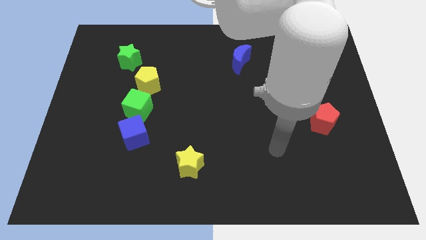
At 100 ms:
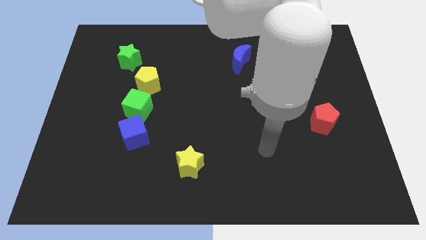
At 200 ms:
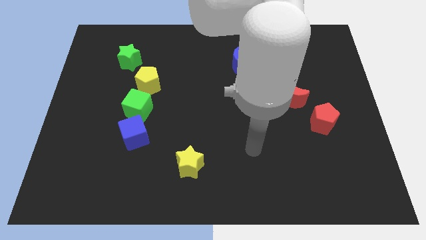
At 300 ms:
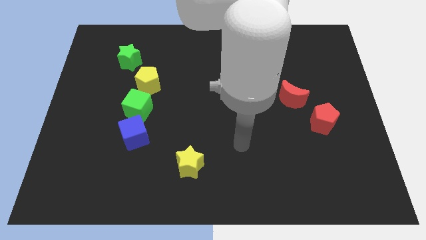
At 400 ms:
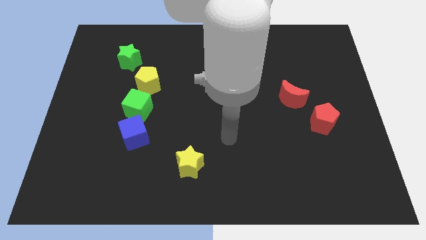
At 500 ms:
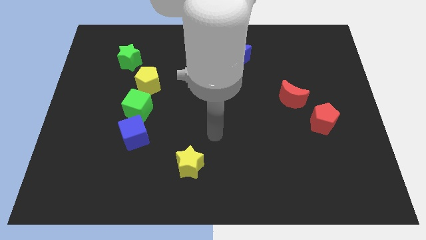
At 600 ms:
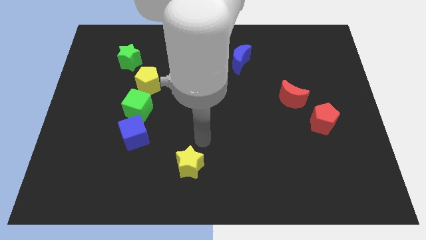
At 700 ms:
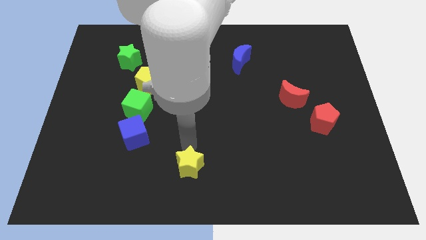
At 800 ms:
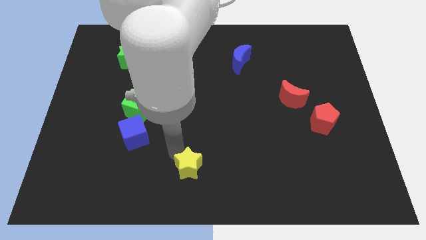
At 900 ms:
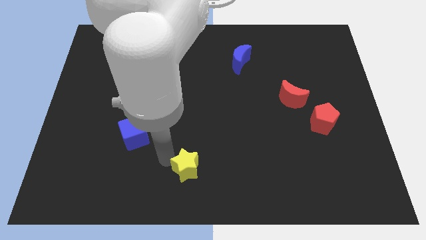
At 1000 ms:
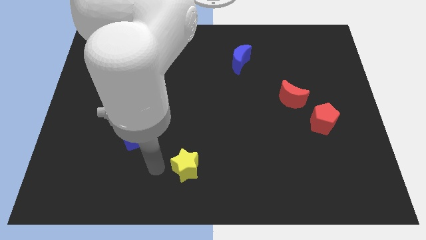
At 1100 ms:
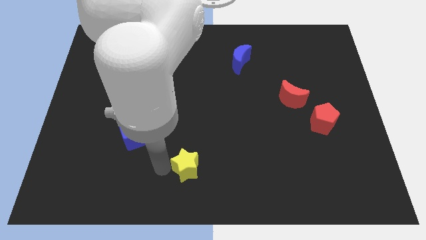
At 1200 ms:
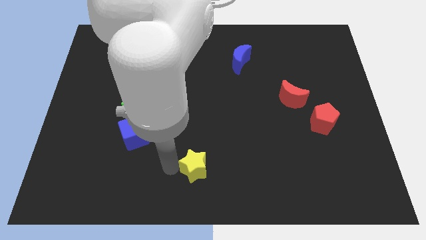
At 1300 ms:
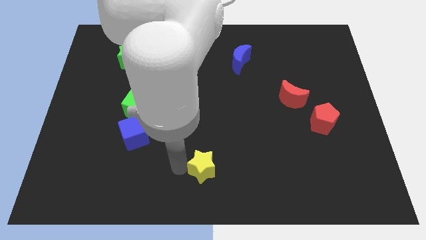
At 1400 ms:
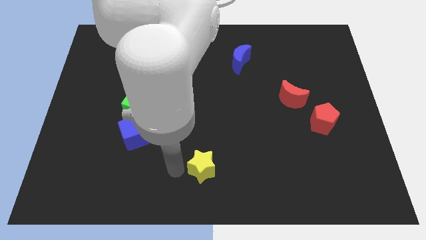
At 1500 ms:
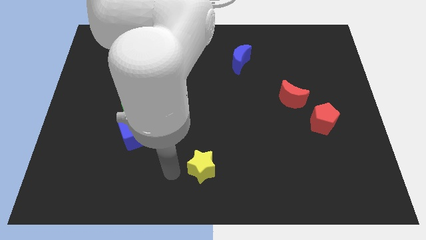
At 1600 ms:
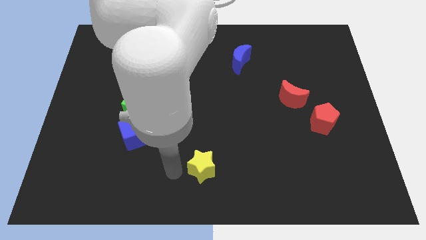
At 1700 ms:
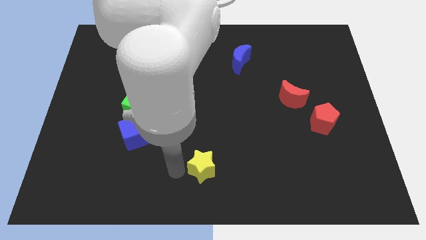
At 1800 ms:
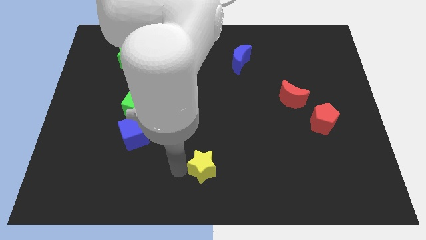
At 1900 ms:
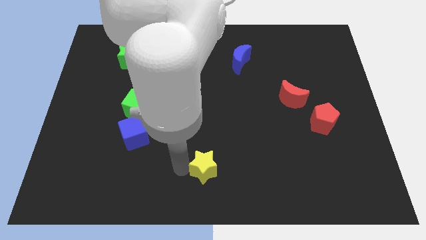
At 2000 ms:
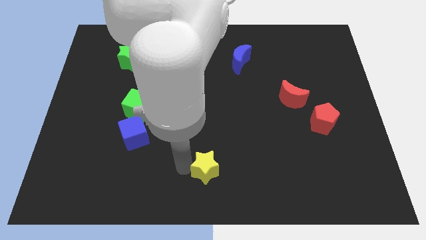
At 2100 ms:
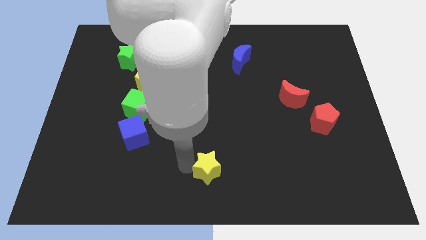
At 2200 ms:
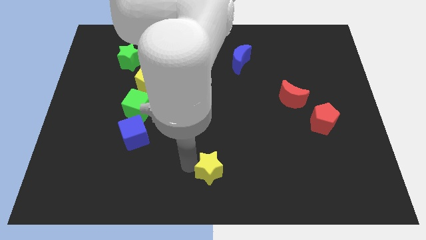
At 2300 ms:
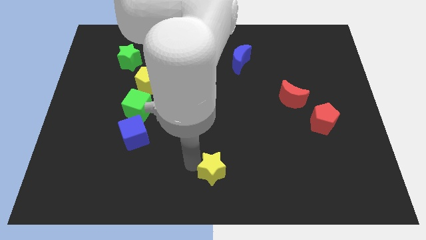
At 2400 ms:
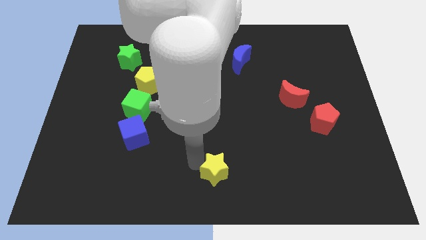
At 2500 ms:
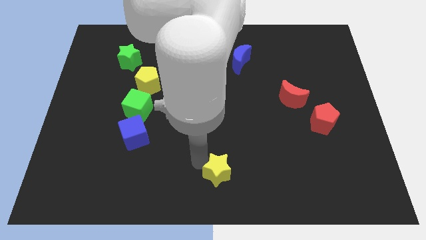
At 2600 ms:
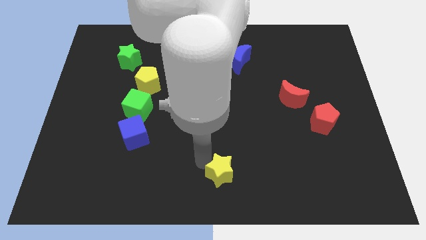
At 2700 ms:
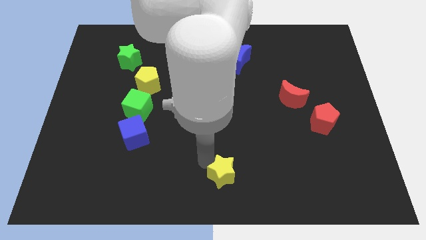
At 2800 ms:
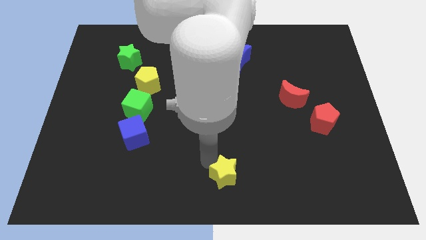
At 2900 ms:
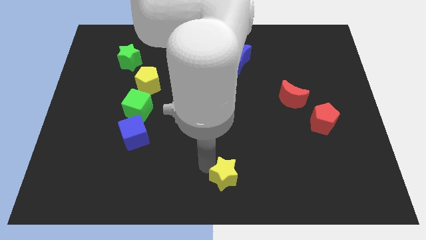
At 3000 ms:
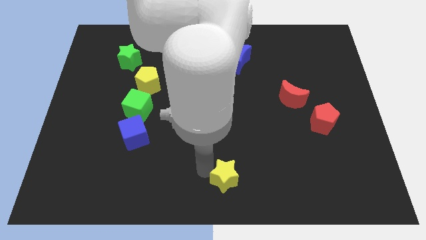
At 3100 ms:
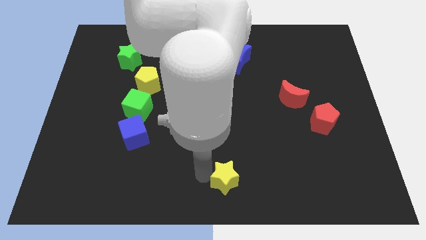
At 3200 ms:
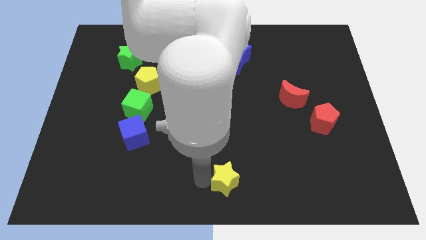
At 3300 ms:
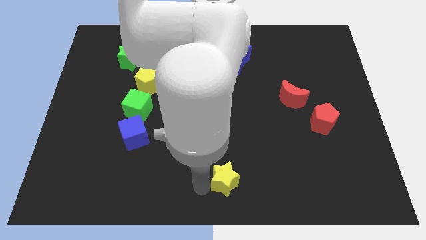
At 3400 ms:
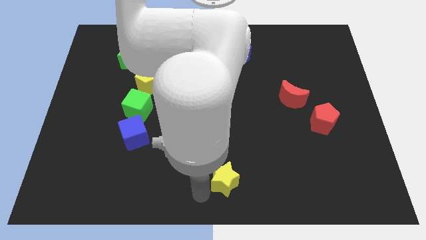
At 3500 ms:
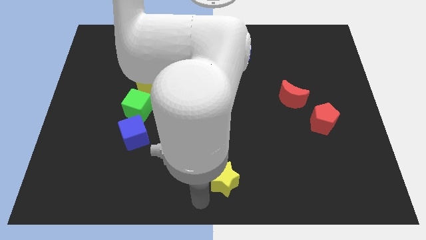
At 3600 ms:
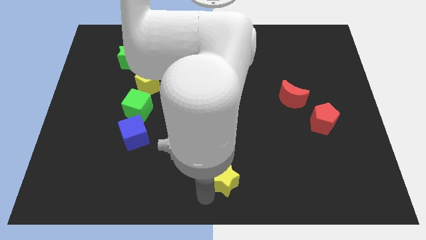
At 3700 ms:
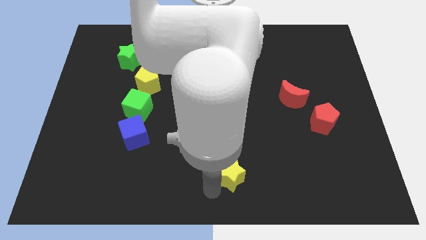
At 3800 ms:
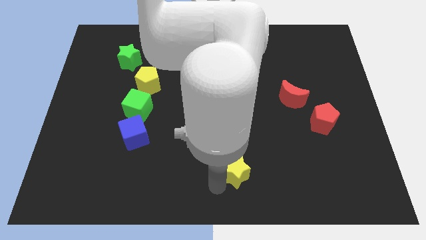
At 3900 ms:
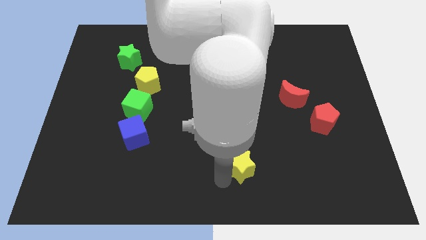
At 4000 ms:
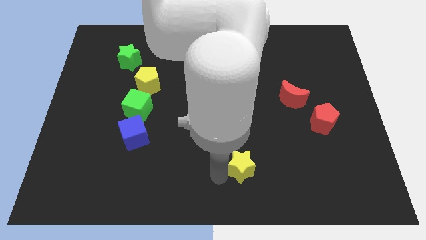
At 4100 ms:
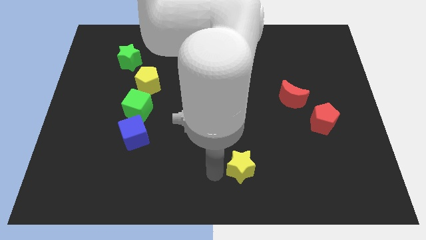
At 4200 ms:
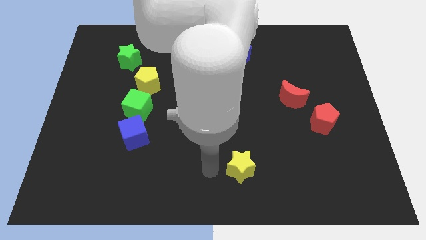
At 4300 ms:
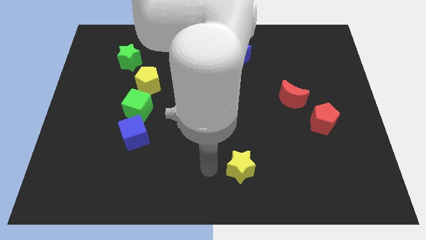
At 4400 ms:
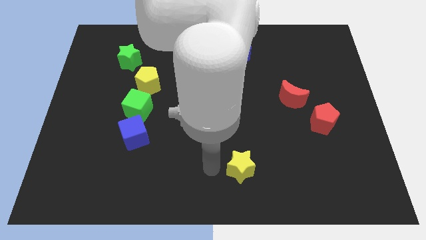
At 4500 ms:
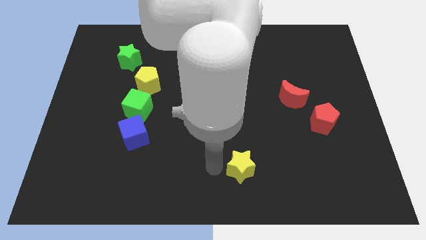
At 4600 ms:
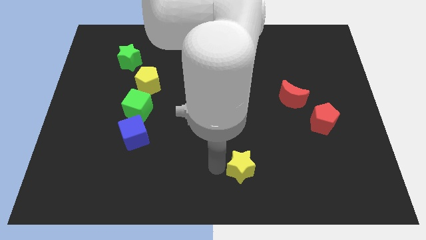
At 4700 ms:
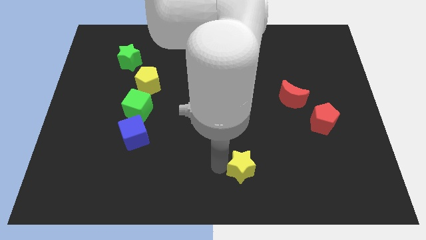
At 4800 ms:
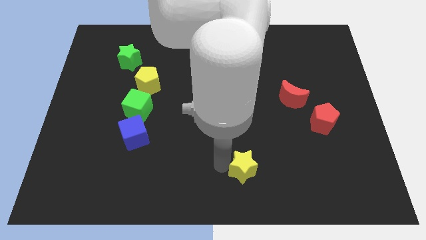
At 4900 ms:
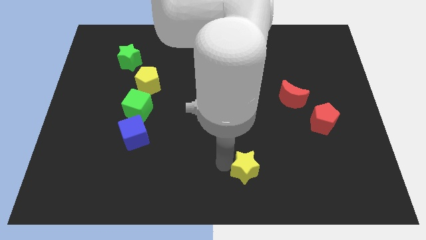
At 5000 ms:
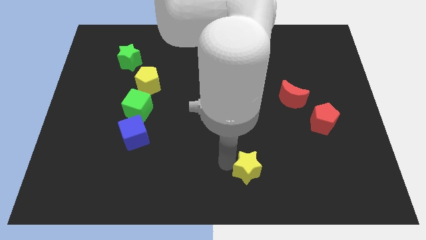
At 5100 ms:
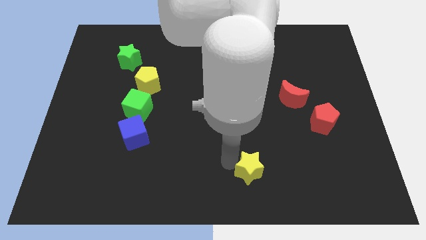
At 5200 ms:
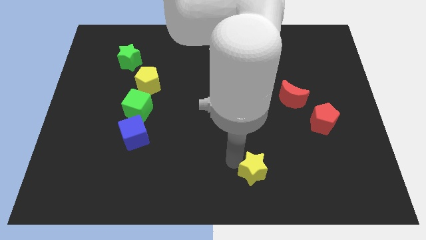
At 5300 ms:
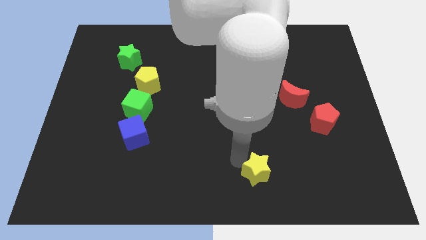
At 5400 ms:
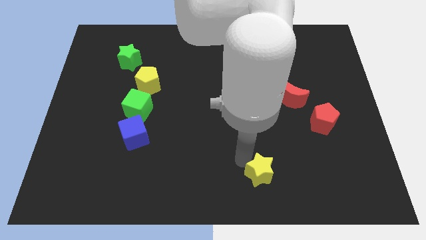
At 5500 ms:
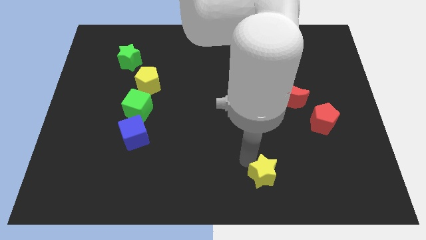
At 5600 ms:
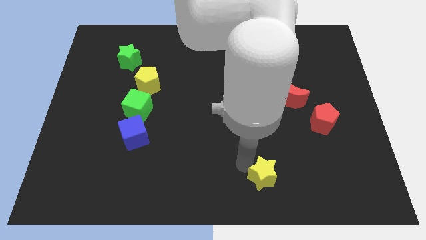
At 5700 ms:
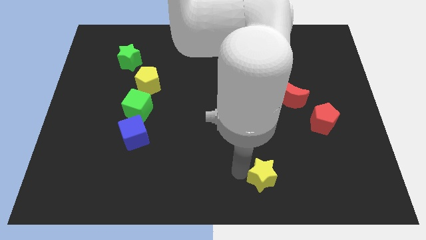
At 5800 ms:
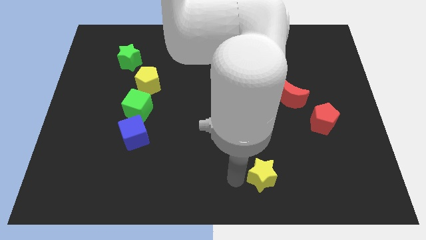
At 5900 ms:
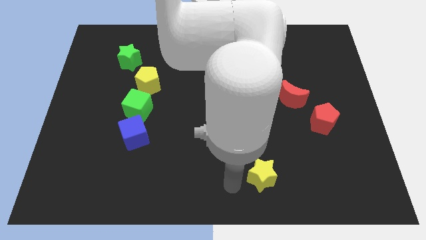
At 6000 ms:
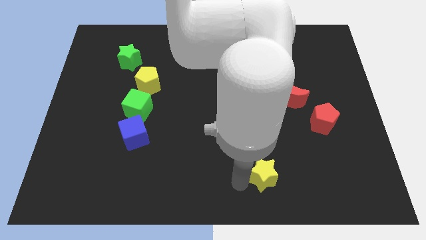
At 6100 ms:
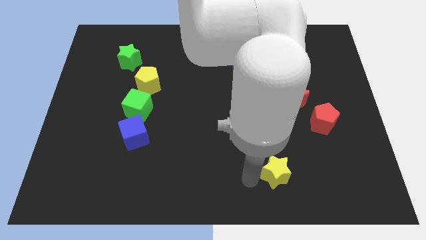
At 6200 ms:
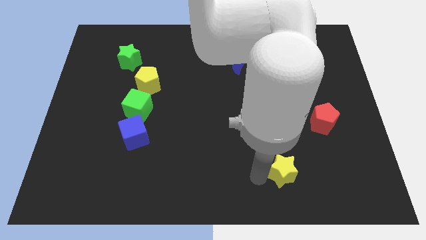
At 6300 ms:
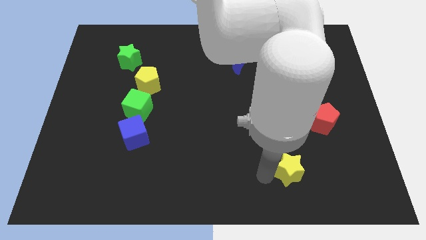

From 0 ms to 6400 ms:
push the yellow star right

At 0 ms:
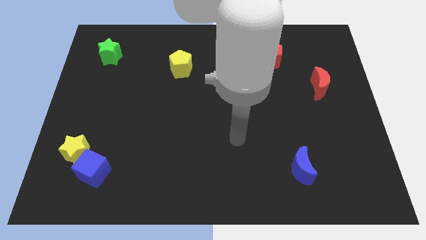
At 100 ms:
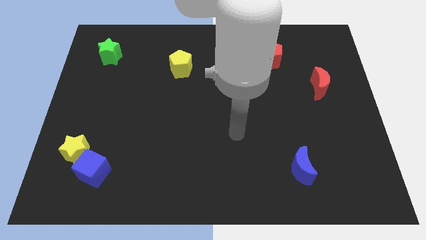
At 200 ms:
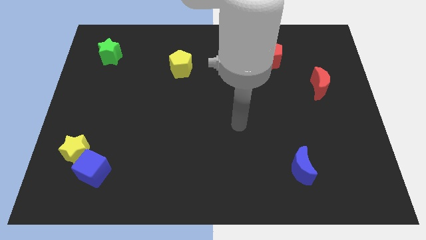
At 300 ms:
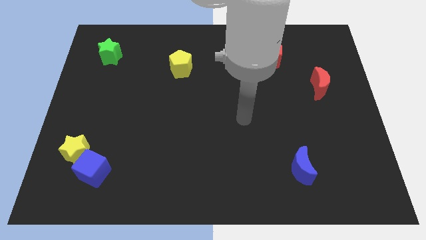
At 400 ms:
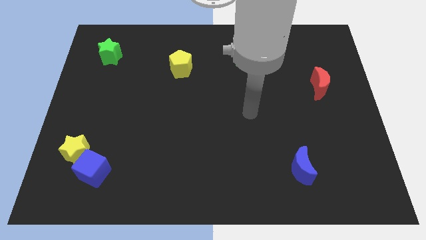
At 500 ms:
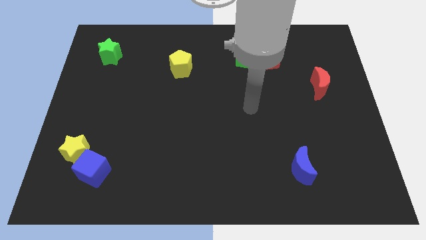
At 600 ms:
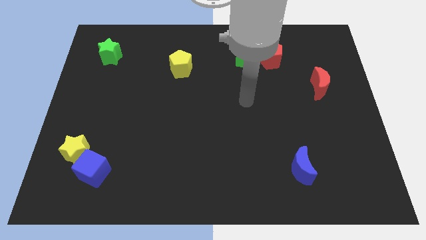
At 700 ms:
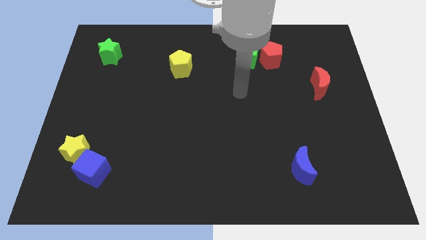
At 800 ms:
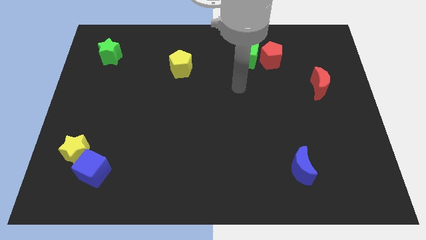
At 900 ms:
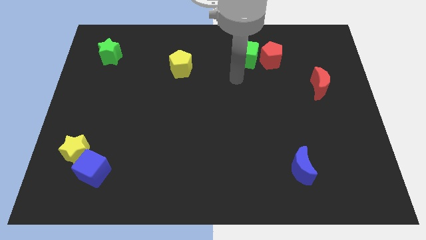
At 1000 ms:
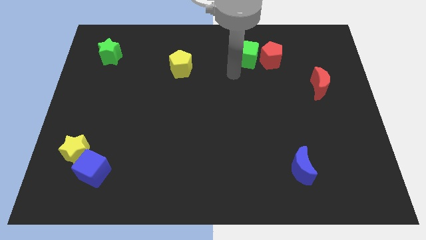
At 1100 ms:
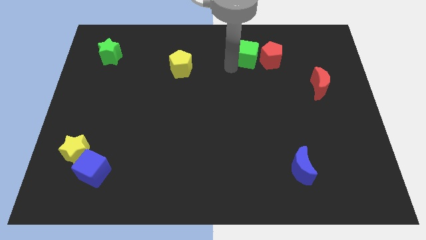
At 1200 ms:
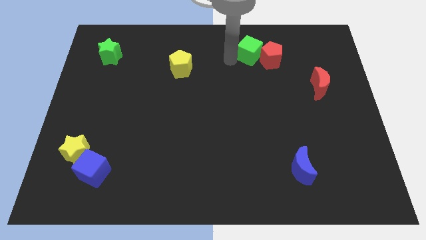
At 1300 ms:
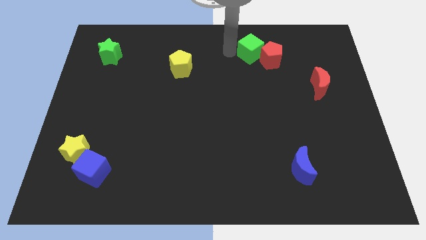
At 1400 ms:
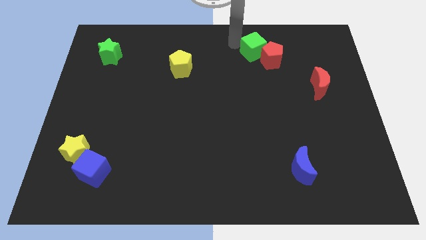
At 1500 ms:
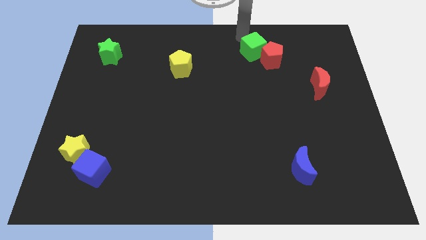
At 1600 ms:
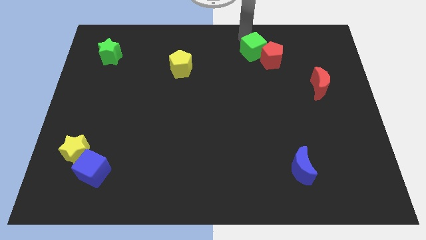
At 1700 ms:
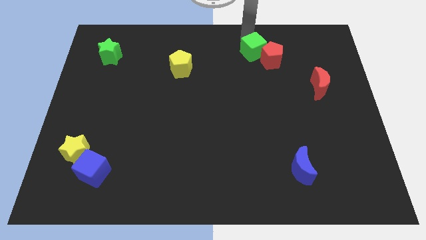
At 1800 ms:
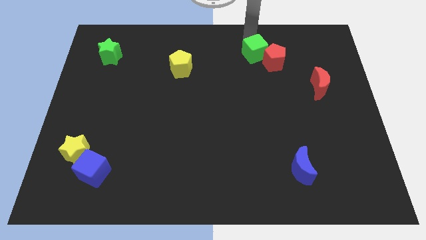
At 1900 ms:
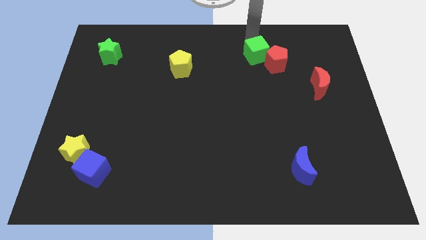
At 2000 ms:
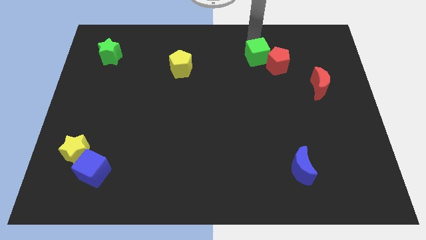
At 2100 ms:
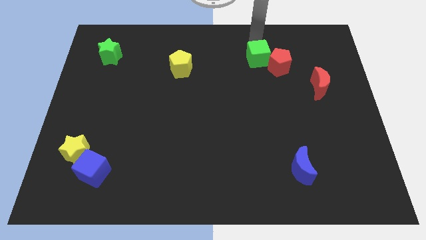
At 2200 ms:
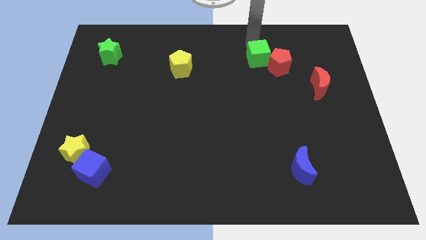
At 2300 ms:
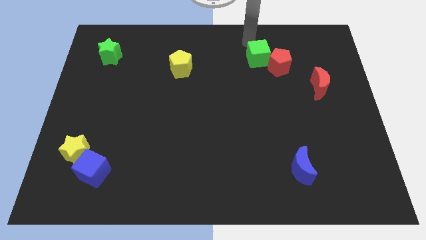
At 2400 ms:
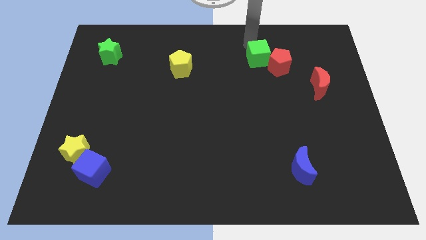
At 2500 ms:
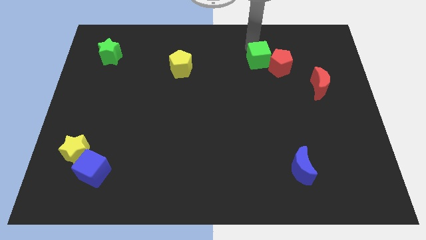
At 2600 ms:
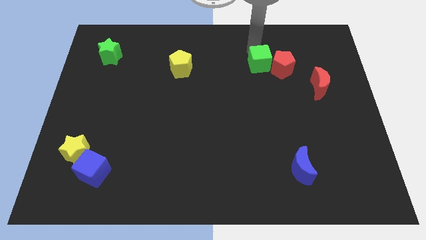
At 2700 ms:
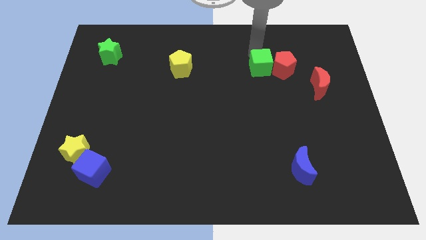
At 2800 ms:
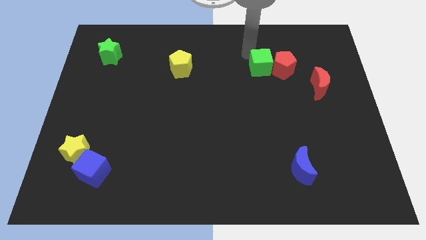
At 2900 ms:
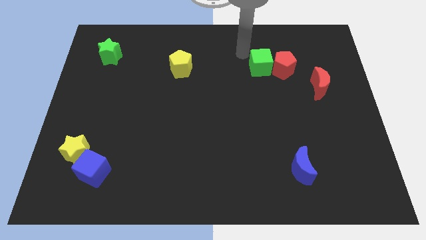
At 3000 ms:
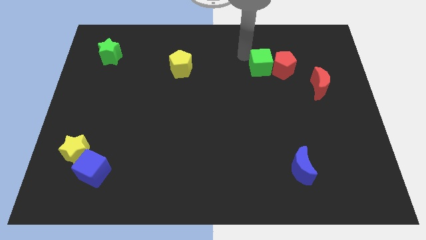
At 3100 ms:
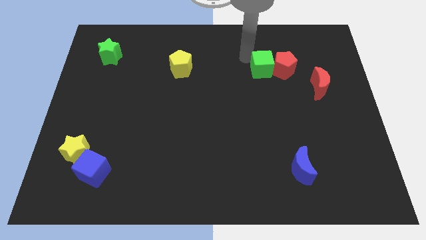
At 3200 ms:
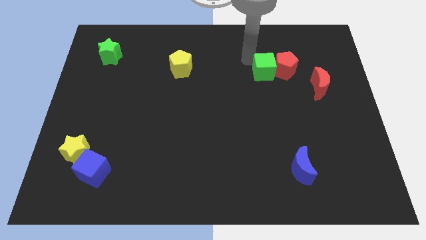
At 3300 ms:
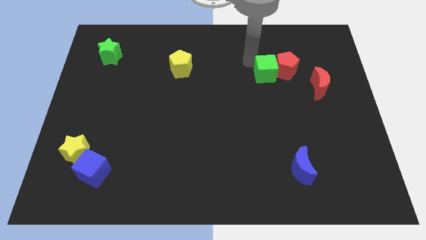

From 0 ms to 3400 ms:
slide the green cube a bit down and then right
